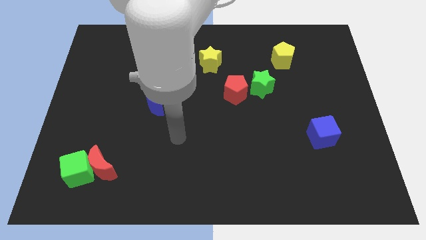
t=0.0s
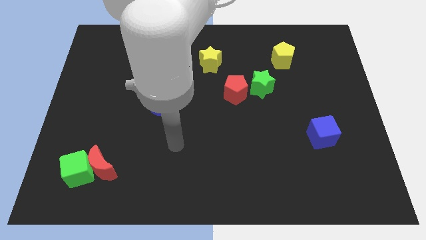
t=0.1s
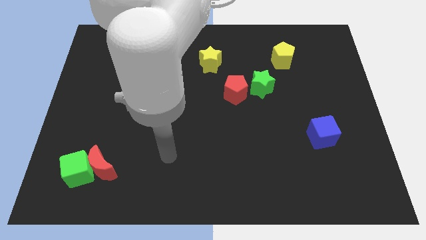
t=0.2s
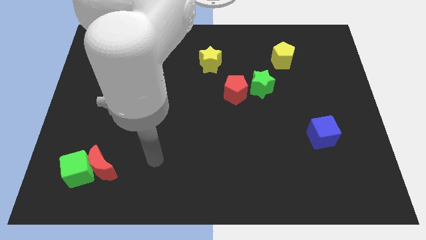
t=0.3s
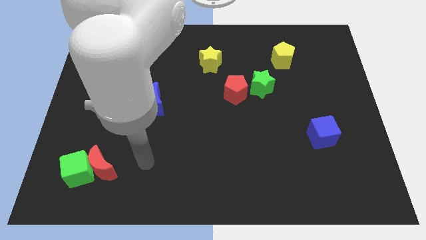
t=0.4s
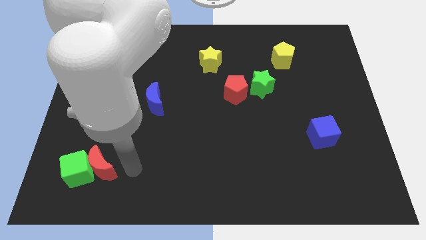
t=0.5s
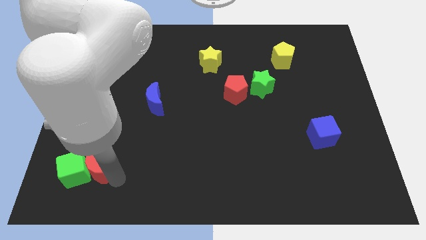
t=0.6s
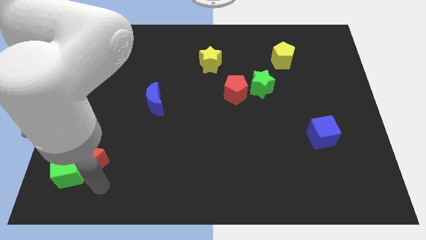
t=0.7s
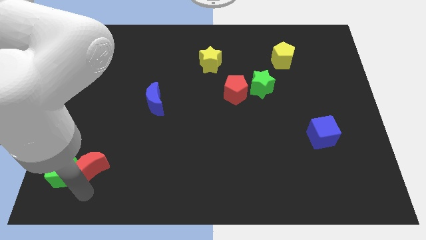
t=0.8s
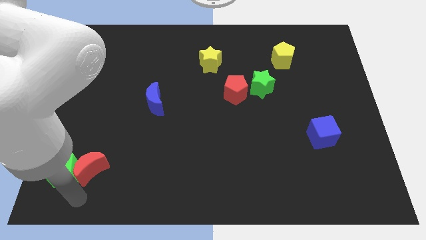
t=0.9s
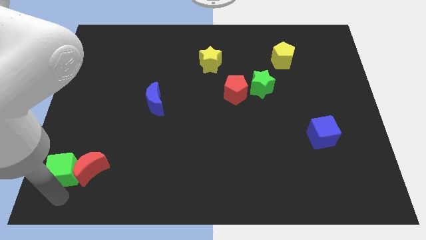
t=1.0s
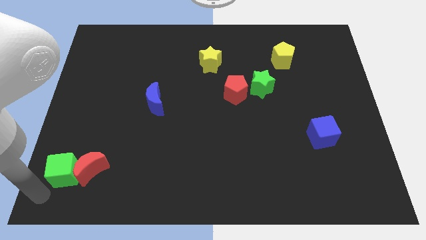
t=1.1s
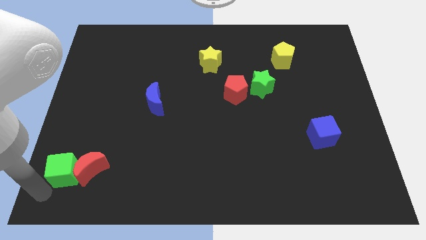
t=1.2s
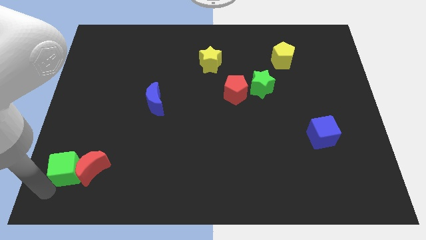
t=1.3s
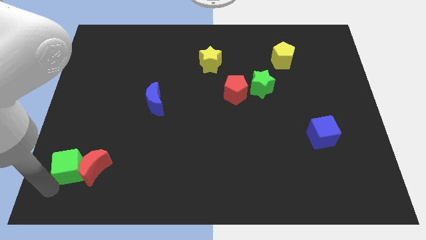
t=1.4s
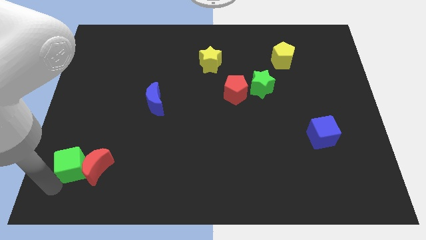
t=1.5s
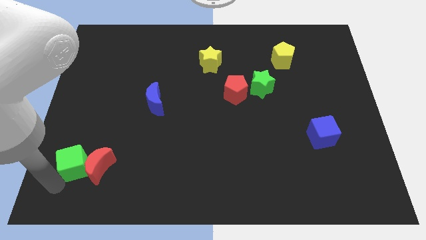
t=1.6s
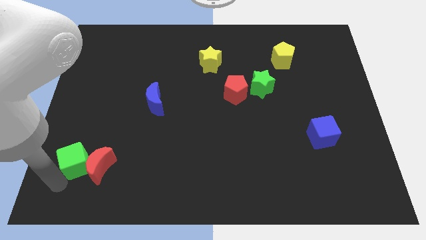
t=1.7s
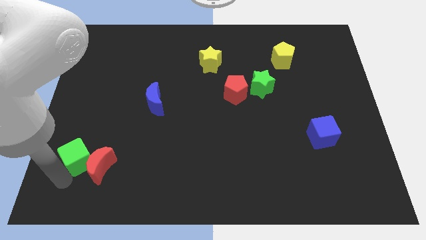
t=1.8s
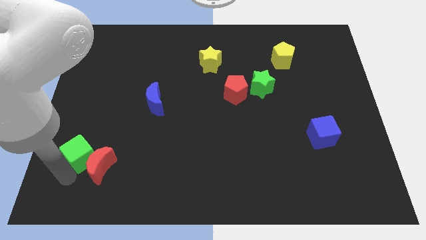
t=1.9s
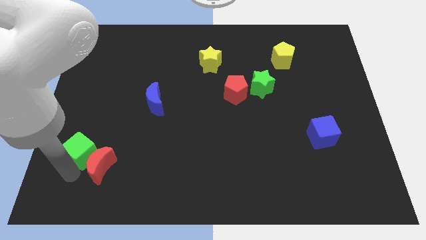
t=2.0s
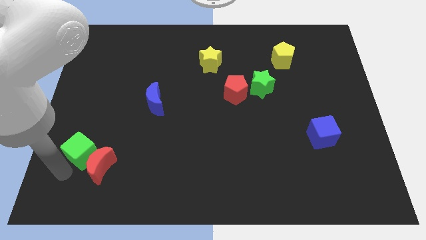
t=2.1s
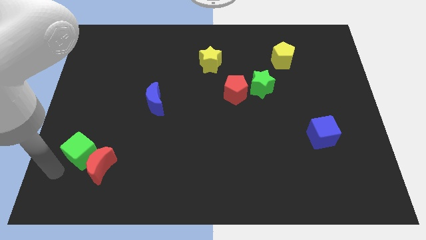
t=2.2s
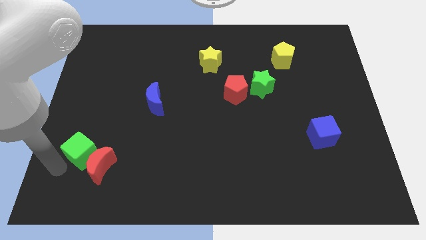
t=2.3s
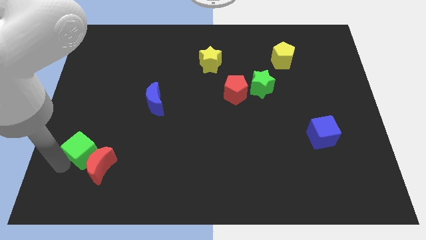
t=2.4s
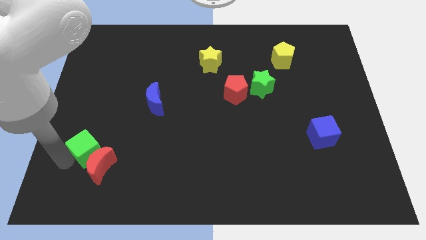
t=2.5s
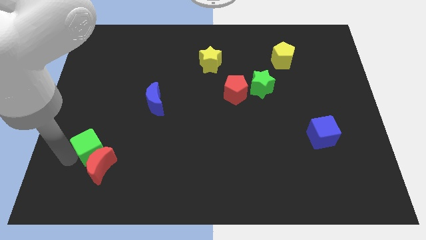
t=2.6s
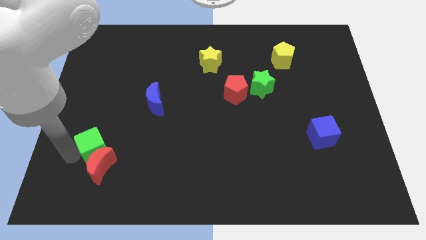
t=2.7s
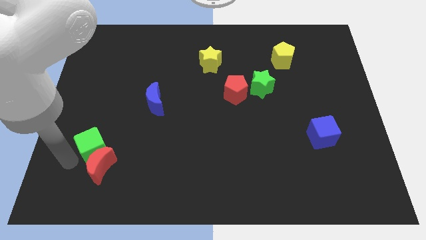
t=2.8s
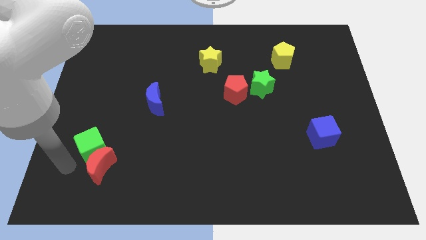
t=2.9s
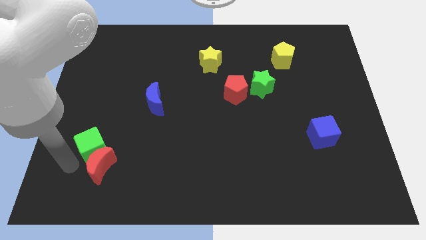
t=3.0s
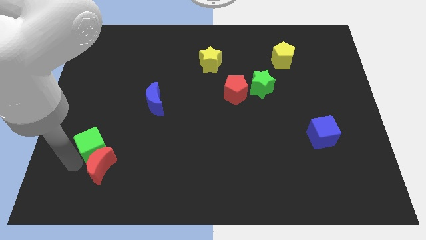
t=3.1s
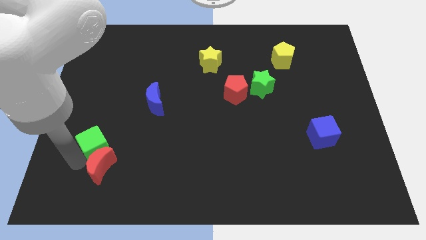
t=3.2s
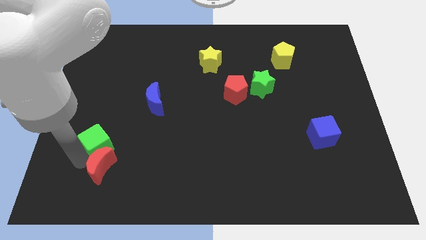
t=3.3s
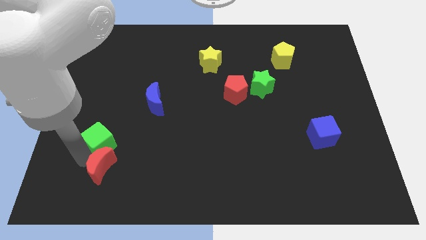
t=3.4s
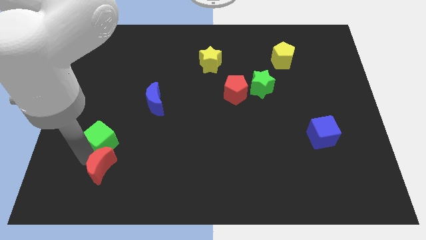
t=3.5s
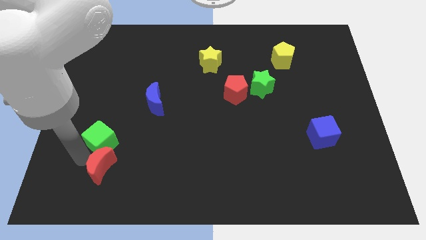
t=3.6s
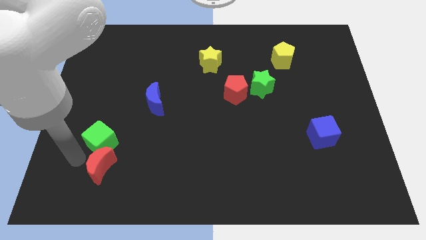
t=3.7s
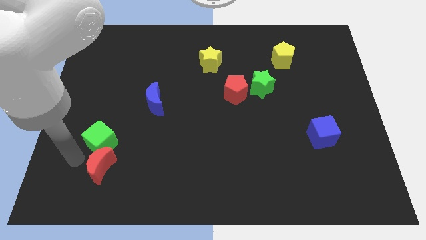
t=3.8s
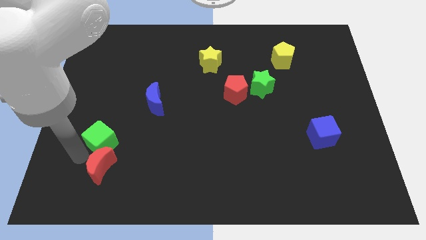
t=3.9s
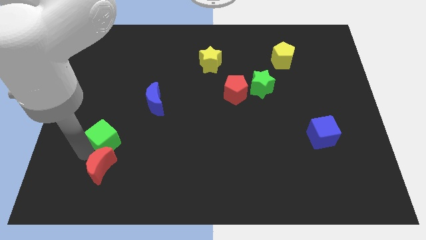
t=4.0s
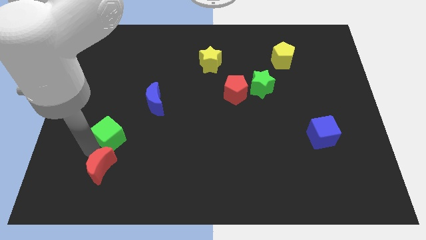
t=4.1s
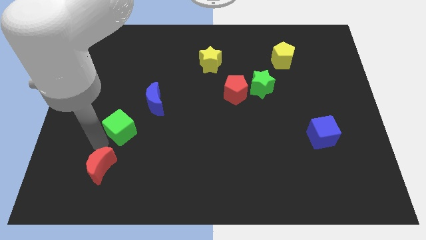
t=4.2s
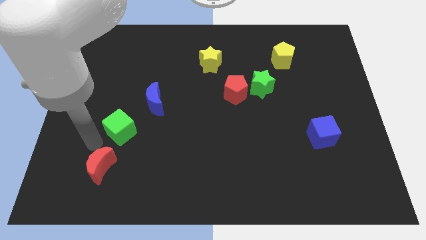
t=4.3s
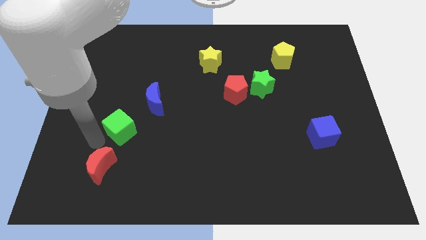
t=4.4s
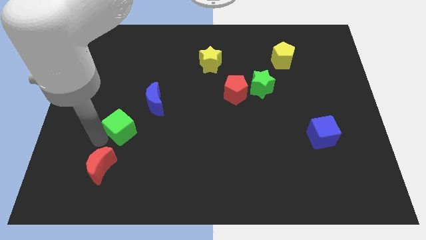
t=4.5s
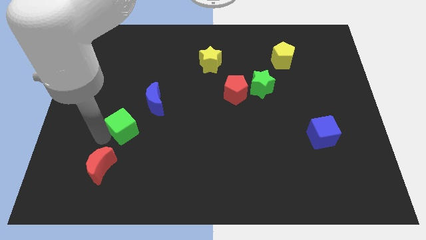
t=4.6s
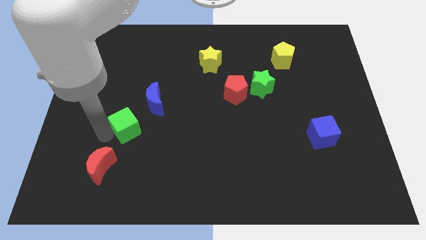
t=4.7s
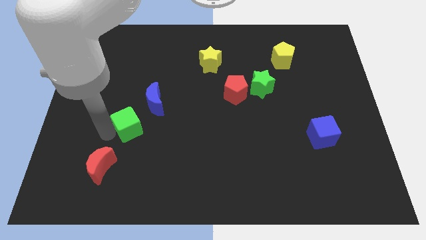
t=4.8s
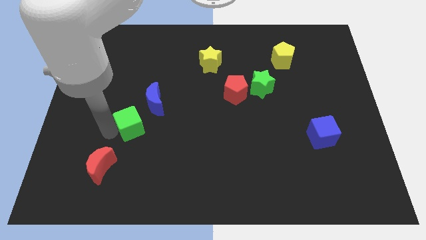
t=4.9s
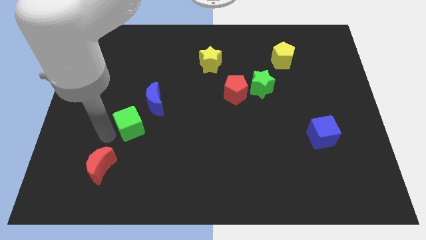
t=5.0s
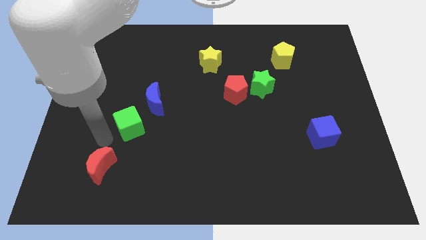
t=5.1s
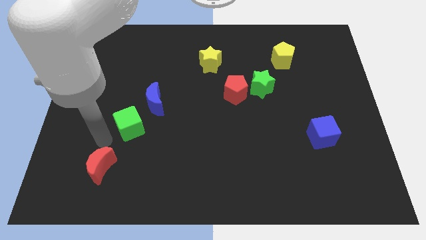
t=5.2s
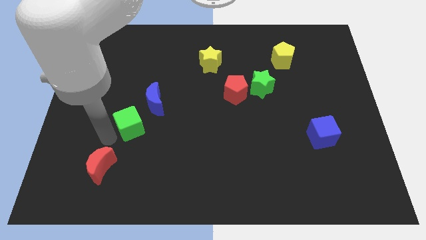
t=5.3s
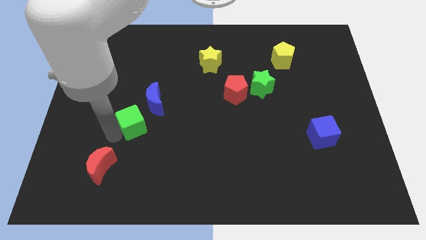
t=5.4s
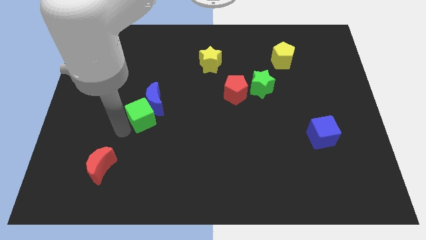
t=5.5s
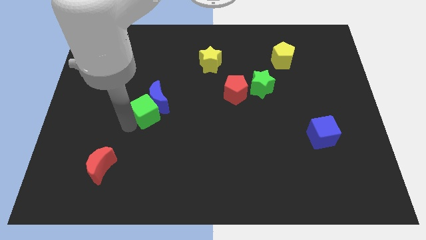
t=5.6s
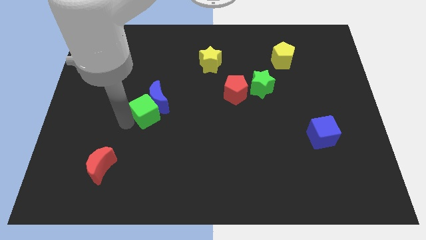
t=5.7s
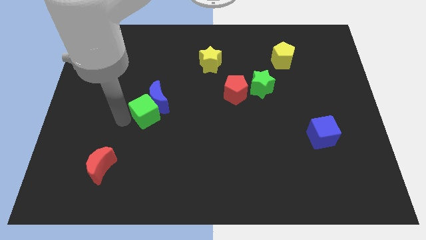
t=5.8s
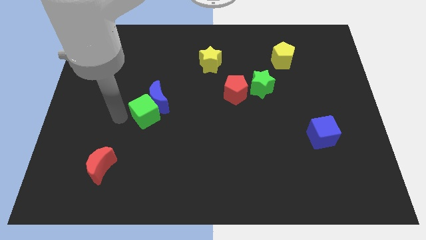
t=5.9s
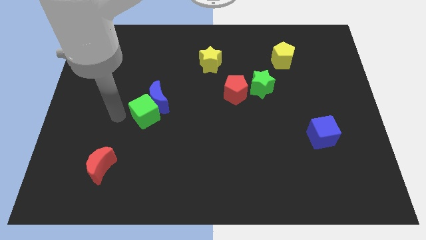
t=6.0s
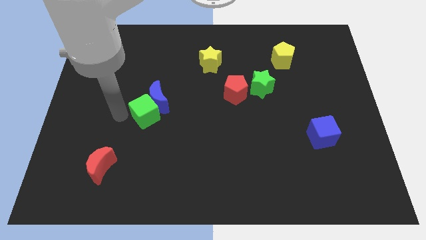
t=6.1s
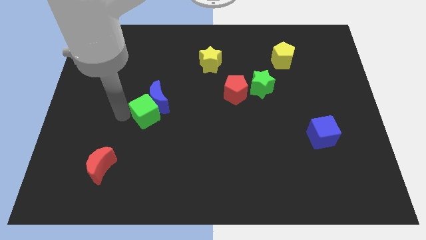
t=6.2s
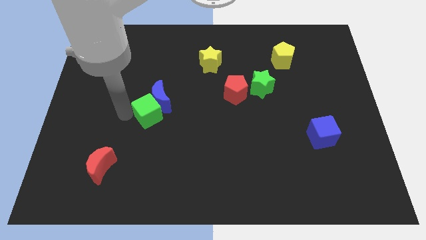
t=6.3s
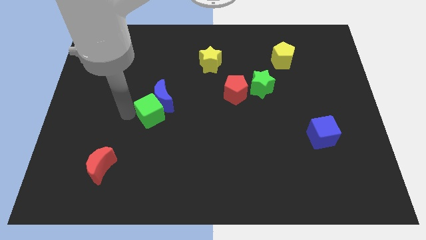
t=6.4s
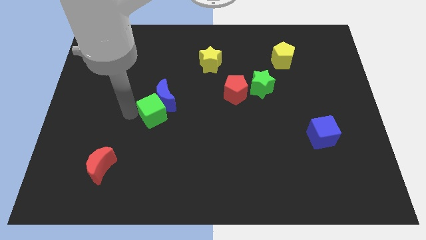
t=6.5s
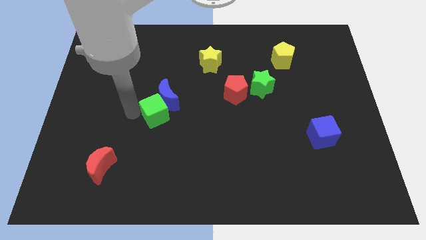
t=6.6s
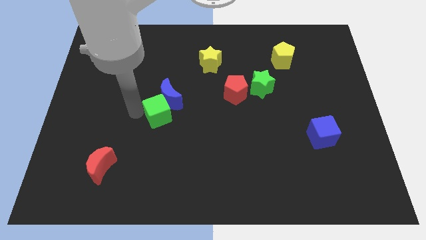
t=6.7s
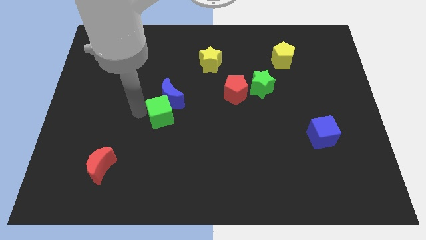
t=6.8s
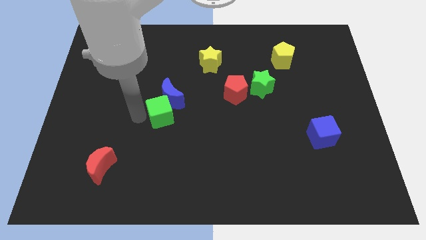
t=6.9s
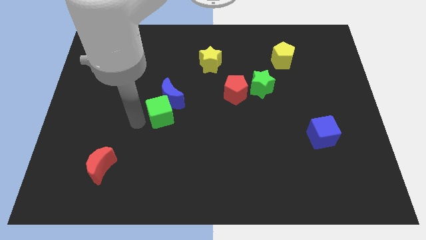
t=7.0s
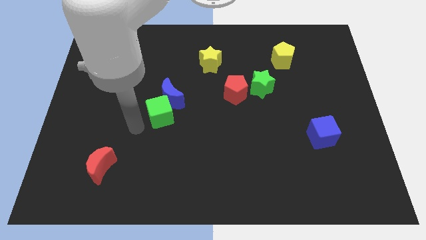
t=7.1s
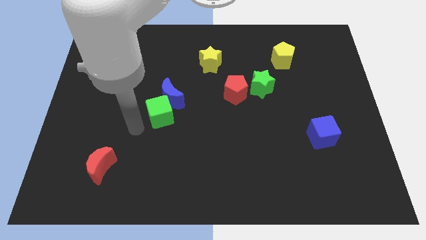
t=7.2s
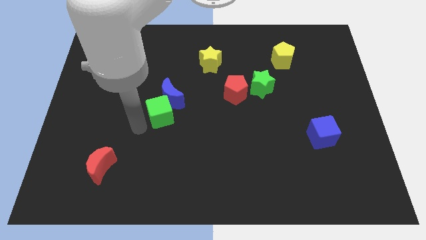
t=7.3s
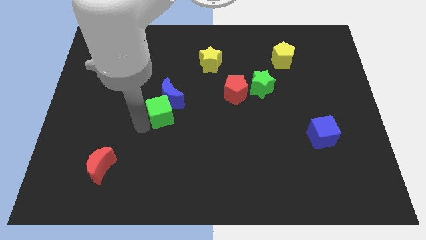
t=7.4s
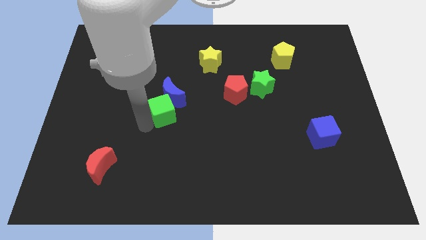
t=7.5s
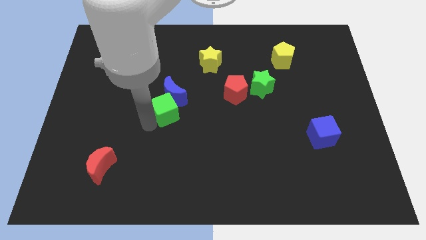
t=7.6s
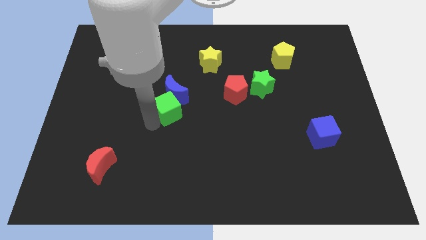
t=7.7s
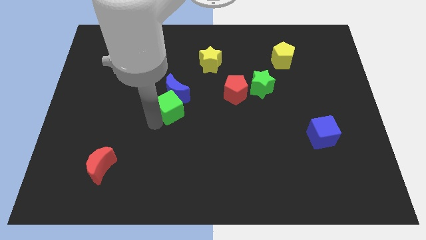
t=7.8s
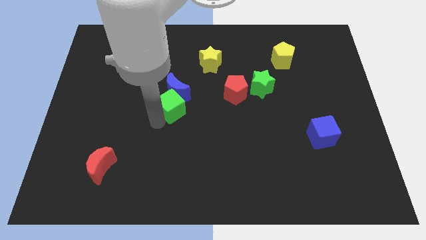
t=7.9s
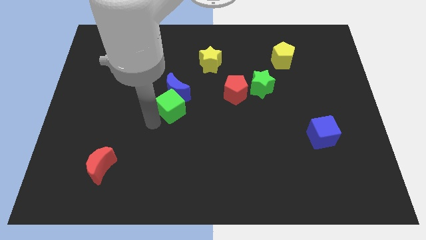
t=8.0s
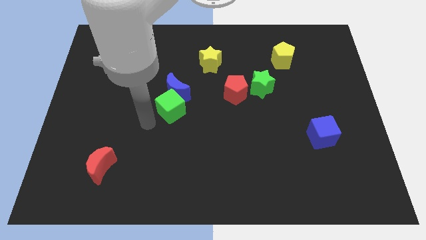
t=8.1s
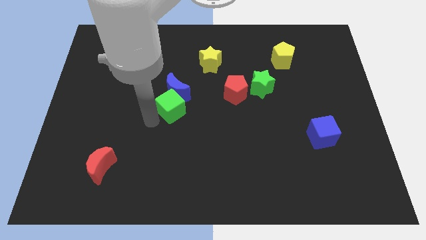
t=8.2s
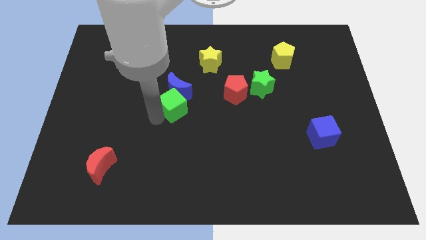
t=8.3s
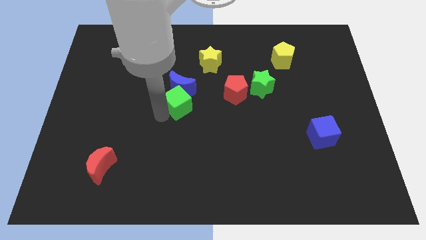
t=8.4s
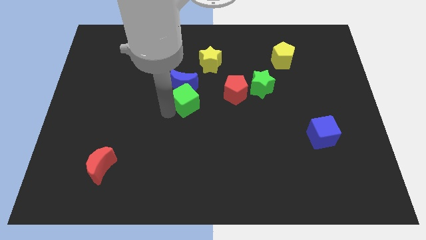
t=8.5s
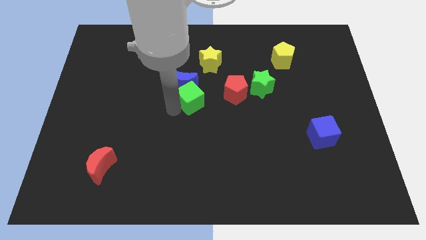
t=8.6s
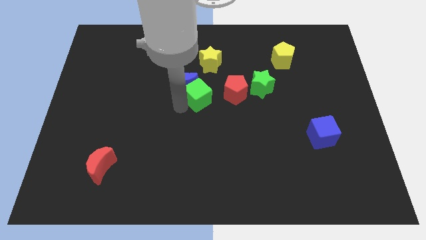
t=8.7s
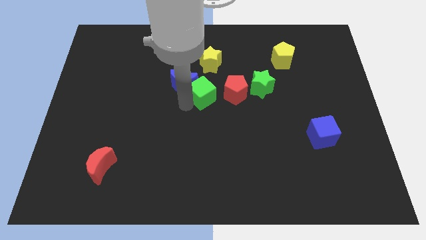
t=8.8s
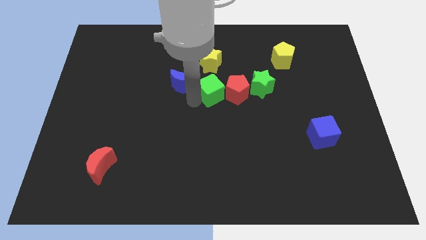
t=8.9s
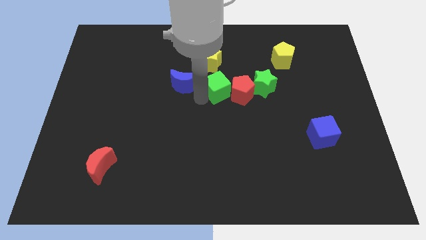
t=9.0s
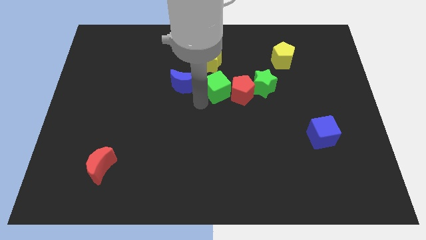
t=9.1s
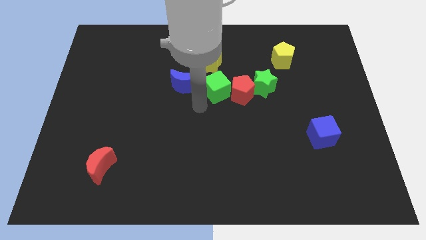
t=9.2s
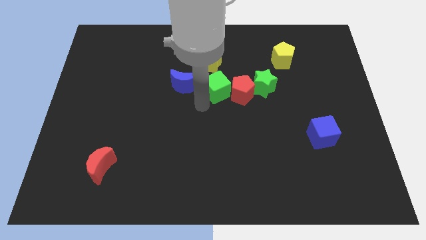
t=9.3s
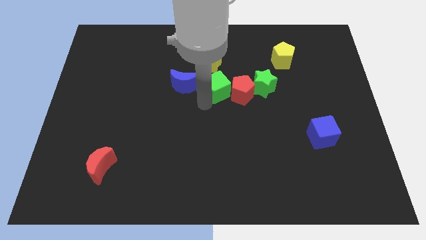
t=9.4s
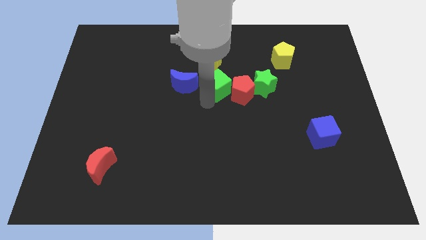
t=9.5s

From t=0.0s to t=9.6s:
push the green cube to the bottom right side of the yellow star
